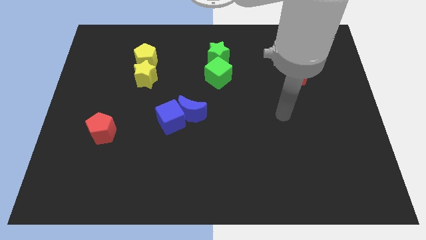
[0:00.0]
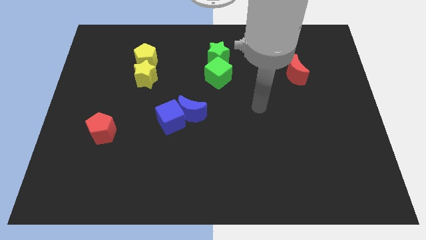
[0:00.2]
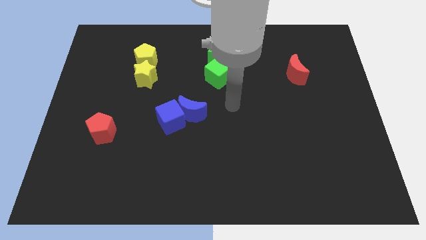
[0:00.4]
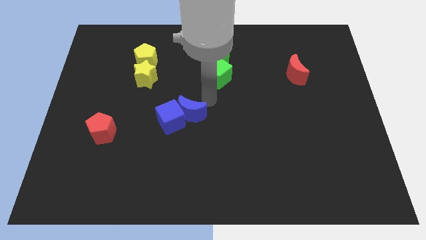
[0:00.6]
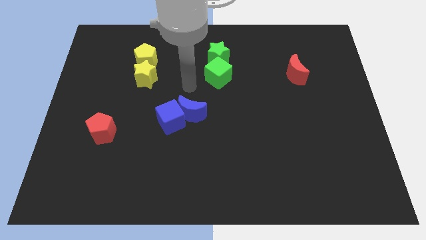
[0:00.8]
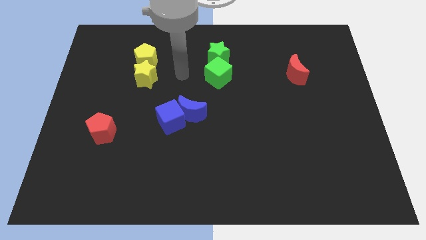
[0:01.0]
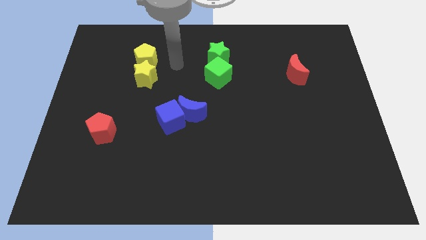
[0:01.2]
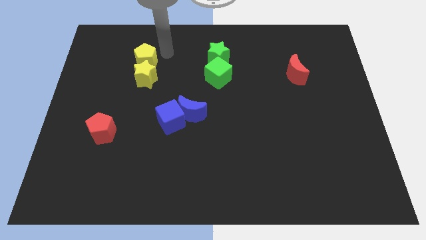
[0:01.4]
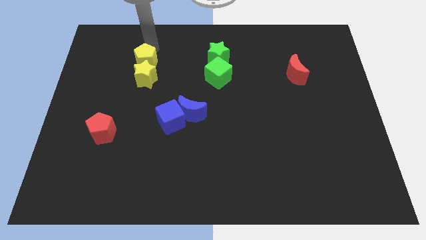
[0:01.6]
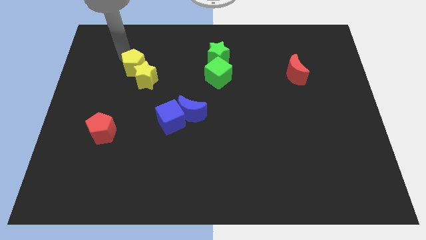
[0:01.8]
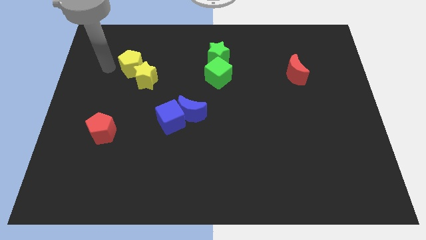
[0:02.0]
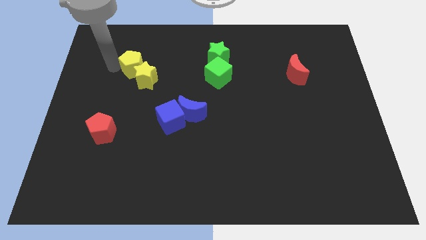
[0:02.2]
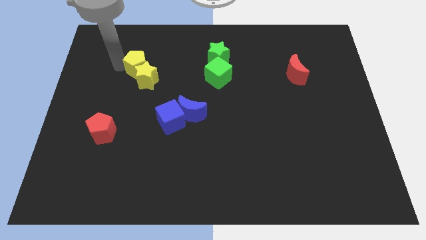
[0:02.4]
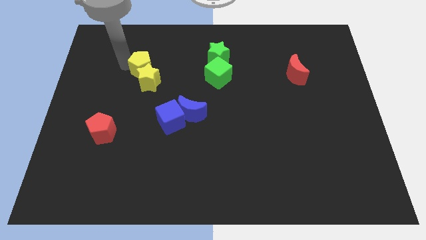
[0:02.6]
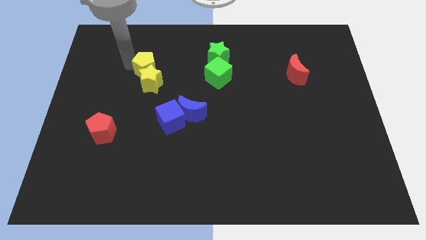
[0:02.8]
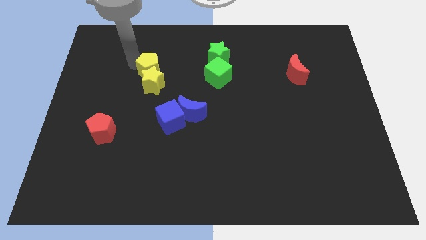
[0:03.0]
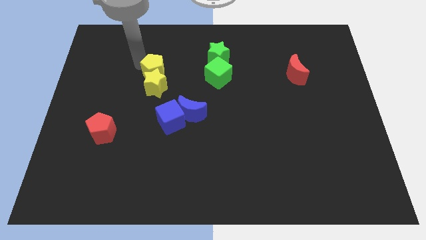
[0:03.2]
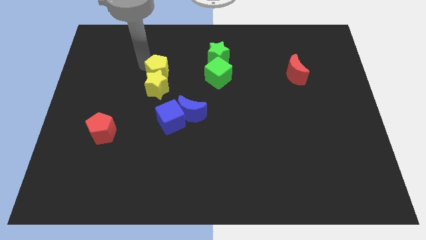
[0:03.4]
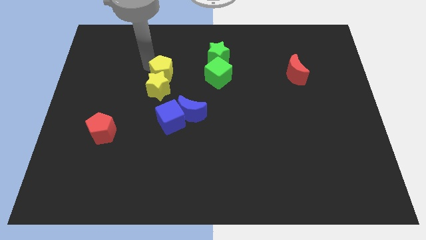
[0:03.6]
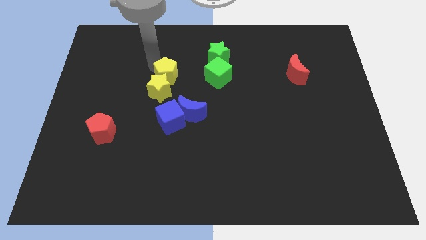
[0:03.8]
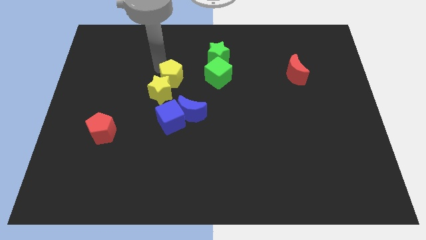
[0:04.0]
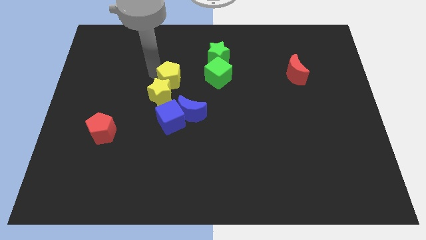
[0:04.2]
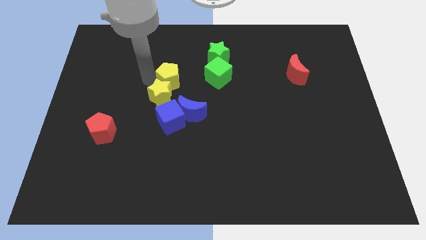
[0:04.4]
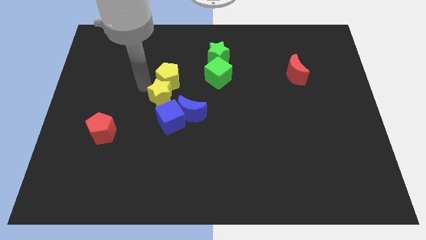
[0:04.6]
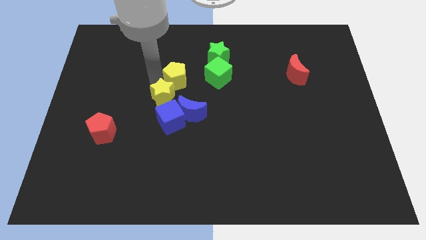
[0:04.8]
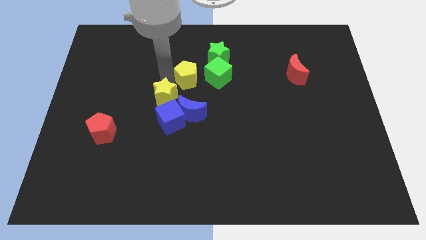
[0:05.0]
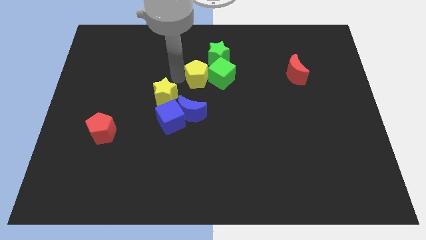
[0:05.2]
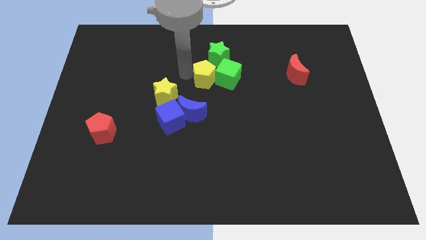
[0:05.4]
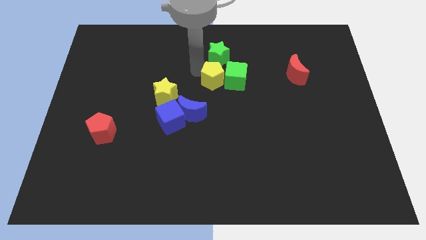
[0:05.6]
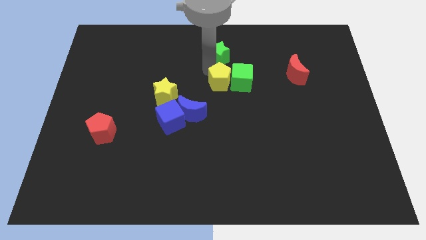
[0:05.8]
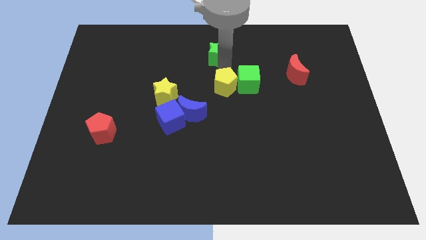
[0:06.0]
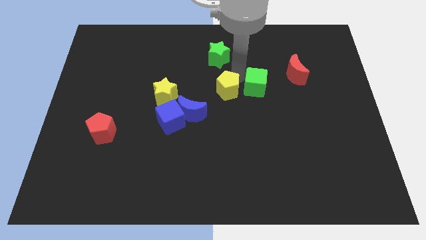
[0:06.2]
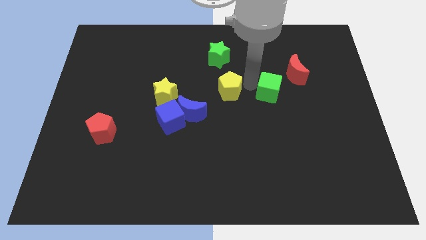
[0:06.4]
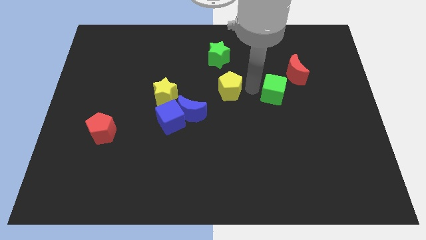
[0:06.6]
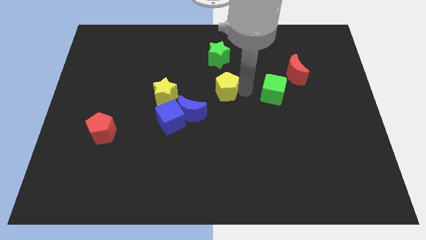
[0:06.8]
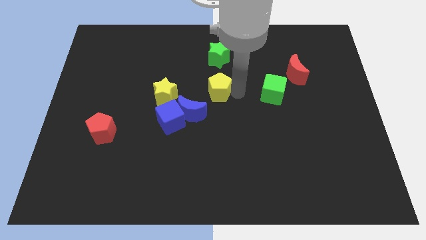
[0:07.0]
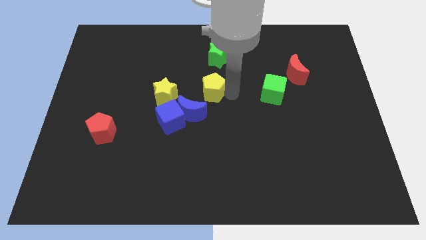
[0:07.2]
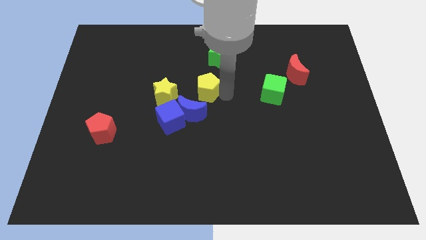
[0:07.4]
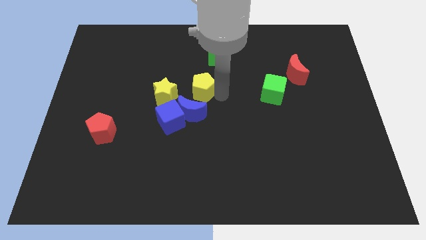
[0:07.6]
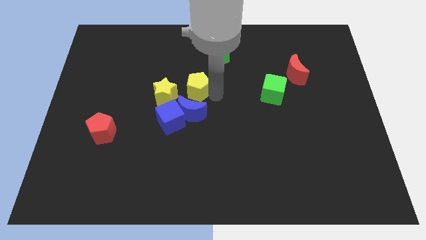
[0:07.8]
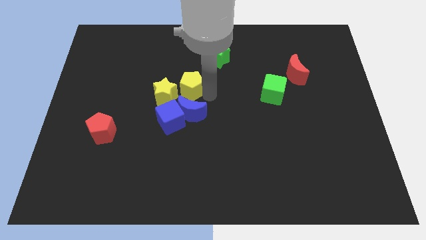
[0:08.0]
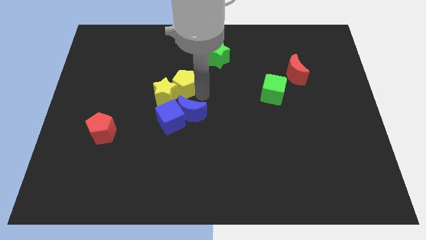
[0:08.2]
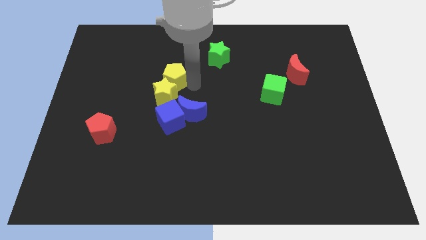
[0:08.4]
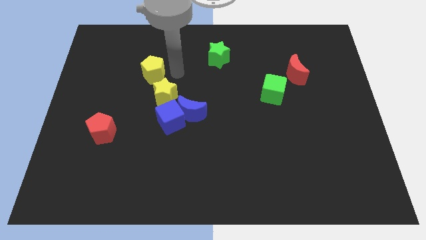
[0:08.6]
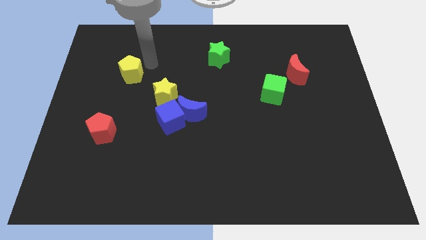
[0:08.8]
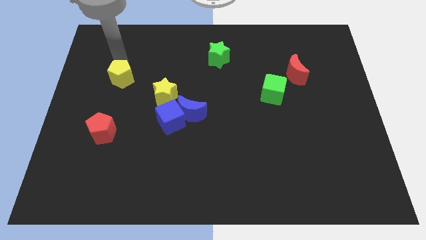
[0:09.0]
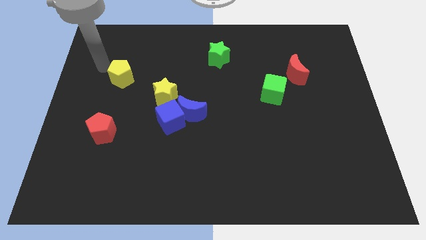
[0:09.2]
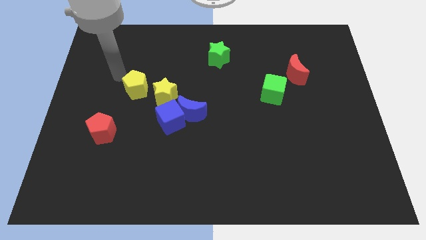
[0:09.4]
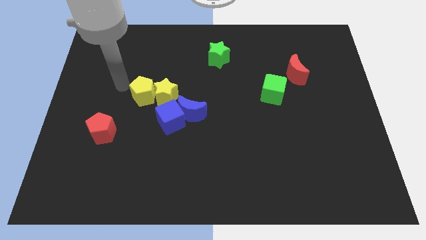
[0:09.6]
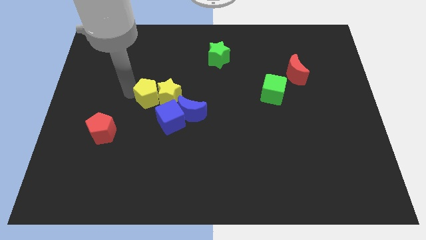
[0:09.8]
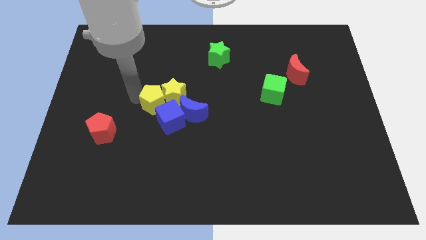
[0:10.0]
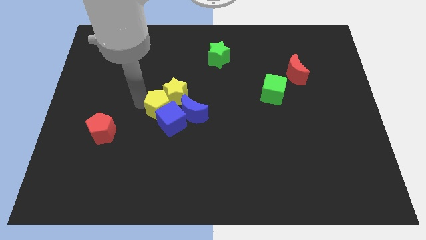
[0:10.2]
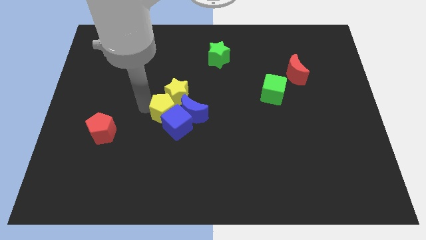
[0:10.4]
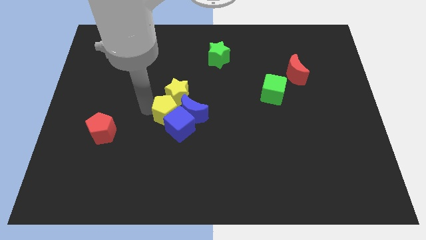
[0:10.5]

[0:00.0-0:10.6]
push the yellow pentagon towards the blue moon
